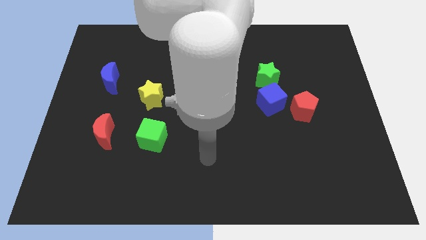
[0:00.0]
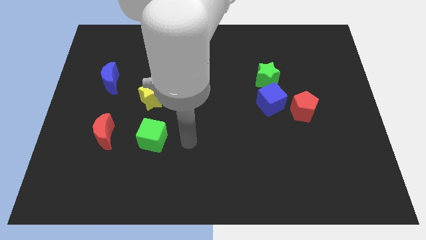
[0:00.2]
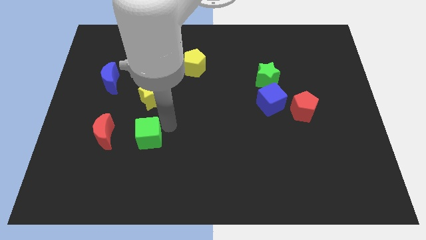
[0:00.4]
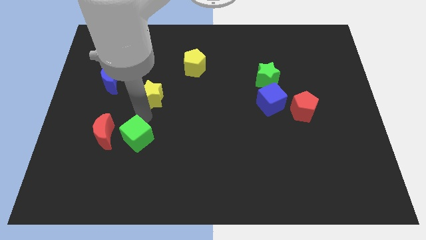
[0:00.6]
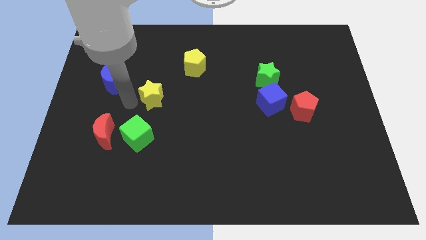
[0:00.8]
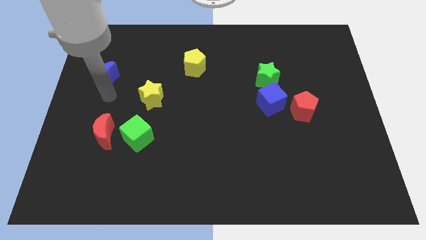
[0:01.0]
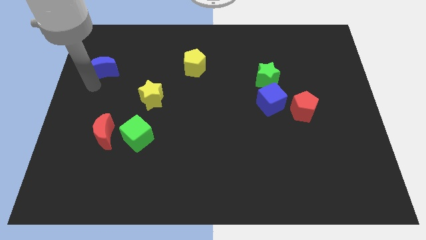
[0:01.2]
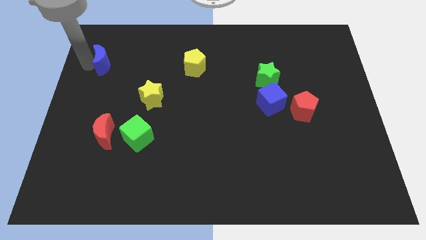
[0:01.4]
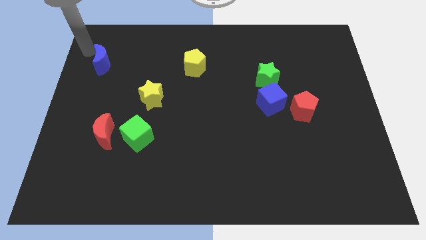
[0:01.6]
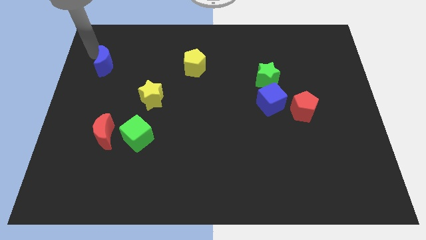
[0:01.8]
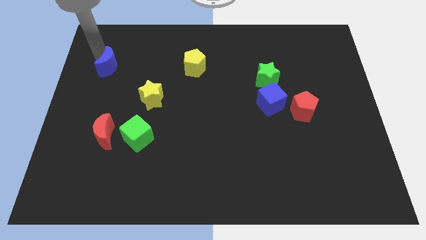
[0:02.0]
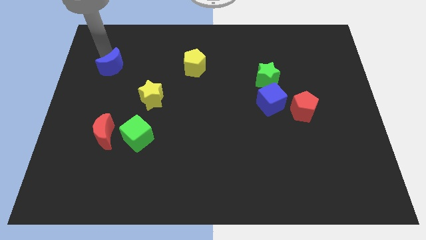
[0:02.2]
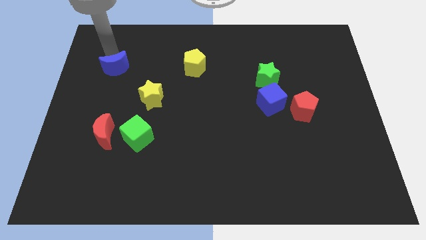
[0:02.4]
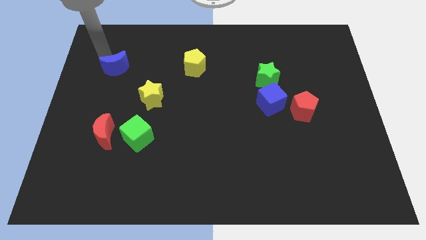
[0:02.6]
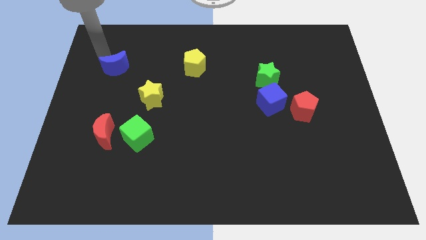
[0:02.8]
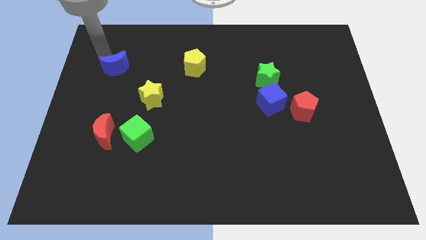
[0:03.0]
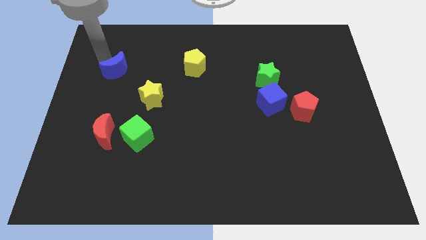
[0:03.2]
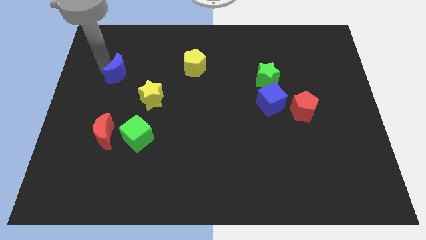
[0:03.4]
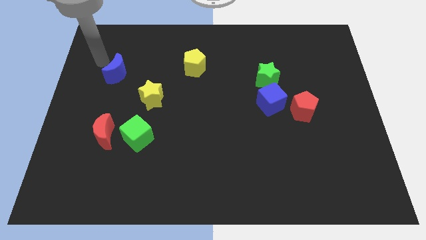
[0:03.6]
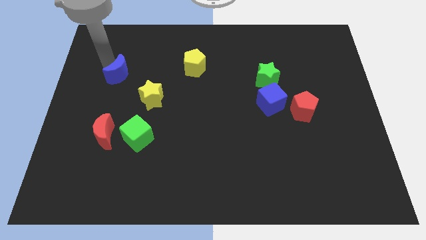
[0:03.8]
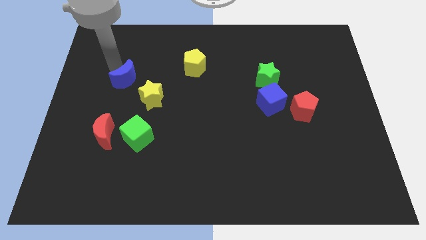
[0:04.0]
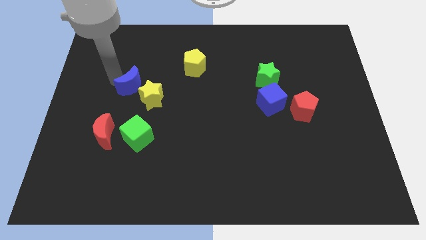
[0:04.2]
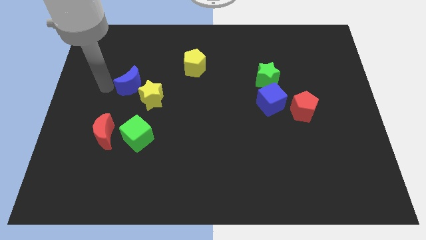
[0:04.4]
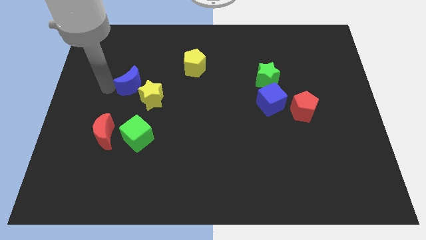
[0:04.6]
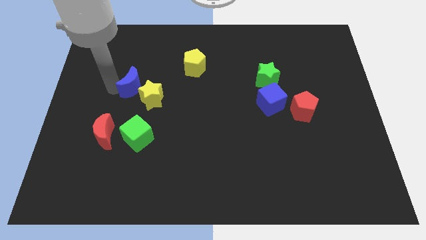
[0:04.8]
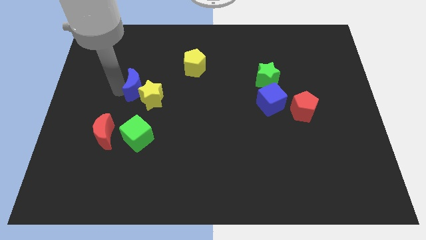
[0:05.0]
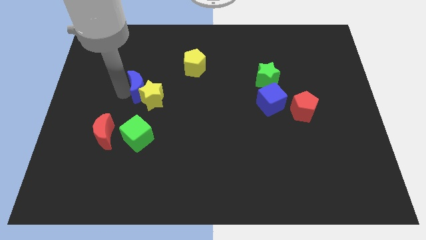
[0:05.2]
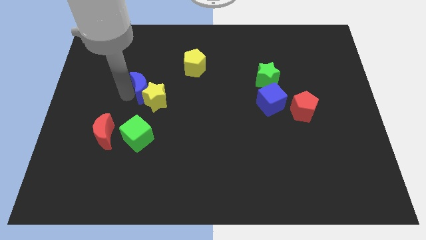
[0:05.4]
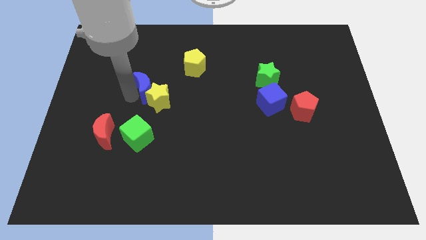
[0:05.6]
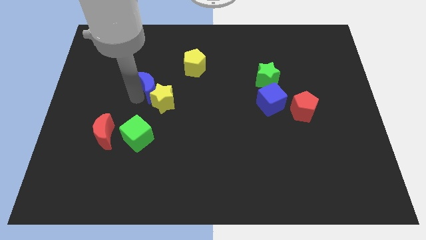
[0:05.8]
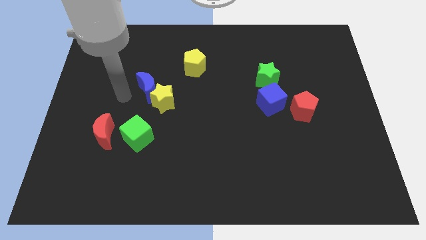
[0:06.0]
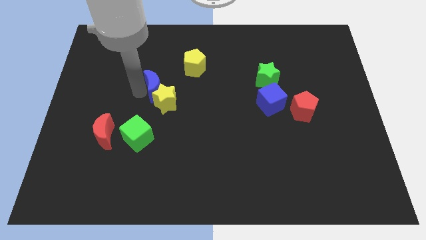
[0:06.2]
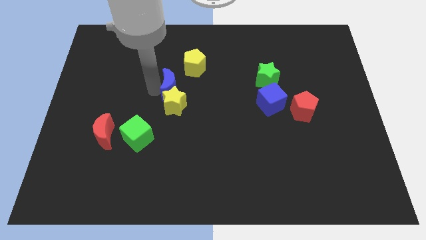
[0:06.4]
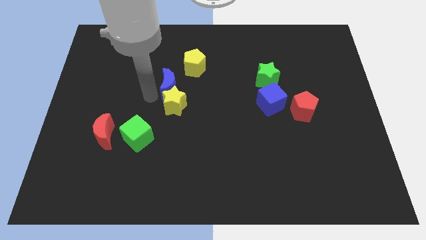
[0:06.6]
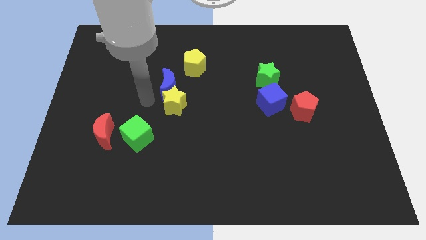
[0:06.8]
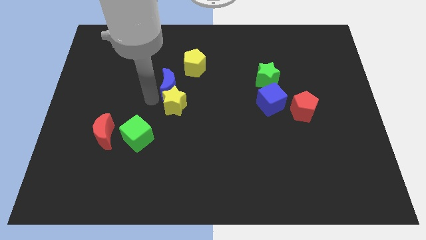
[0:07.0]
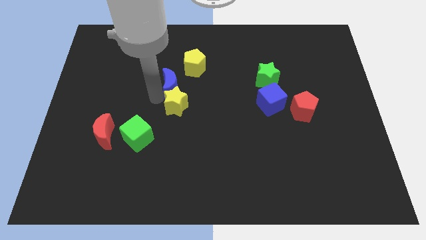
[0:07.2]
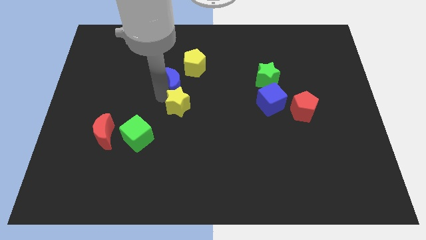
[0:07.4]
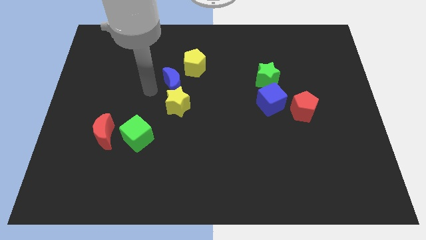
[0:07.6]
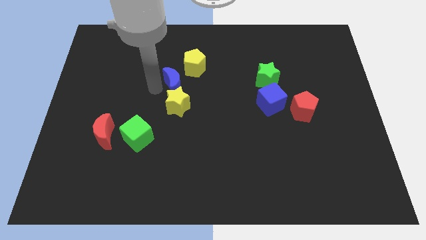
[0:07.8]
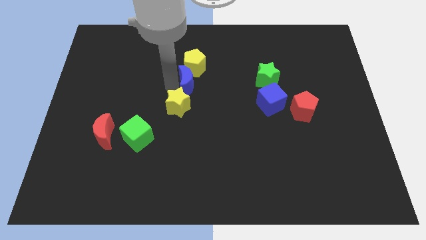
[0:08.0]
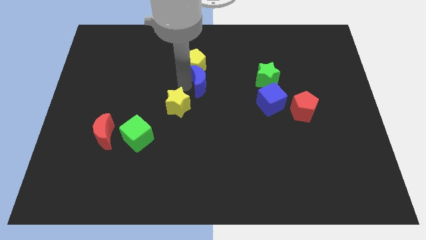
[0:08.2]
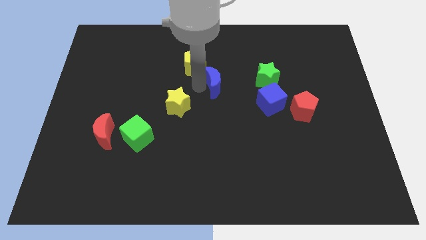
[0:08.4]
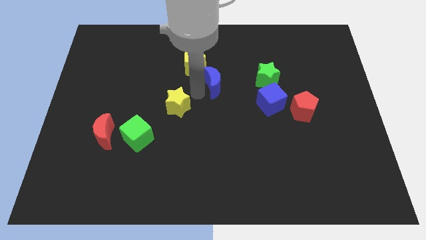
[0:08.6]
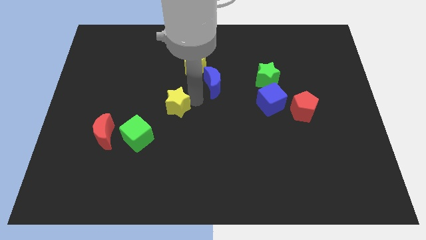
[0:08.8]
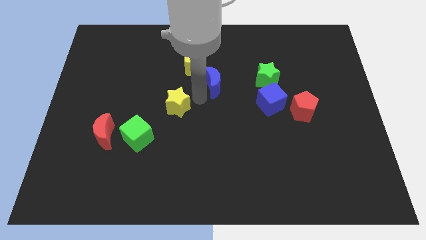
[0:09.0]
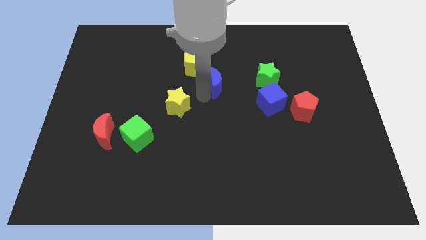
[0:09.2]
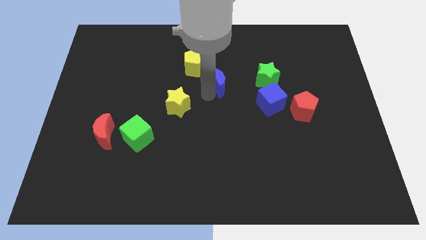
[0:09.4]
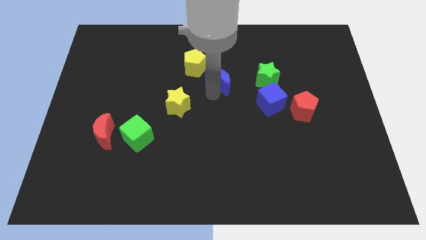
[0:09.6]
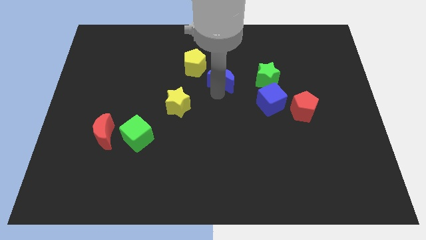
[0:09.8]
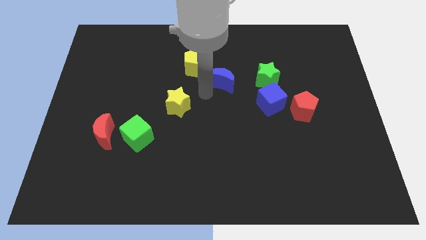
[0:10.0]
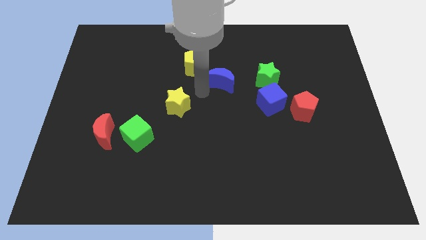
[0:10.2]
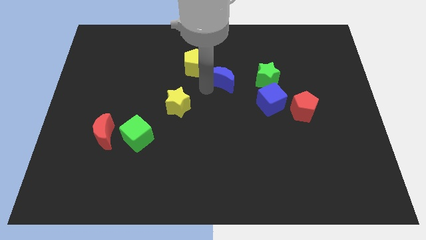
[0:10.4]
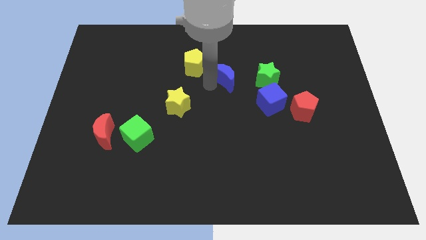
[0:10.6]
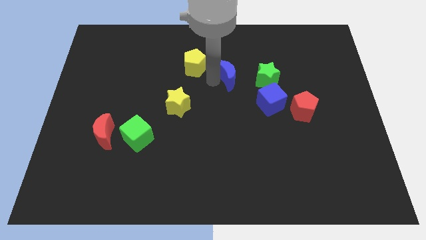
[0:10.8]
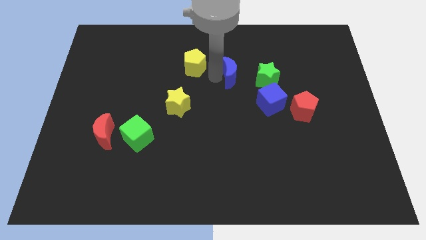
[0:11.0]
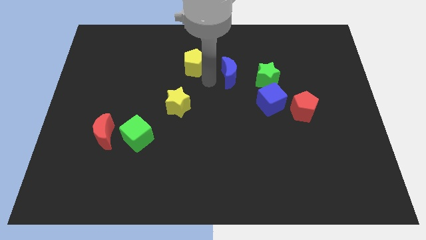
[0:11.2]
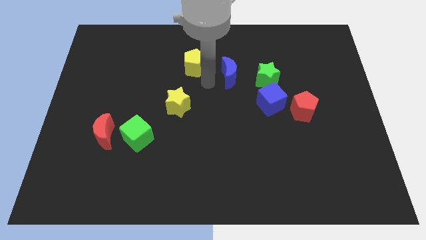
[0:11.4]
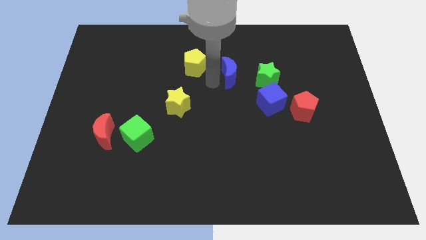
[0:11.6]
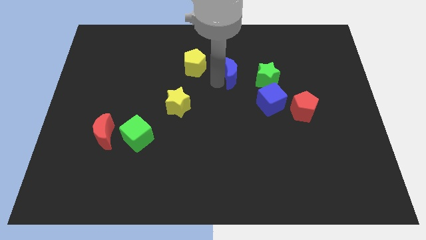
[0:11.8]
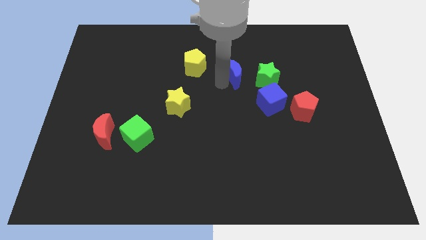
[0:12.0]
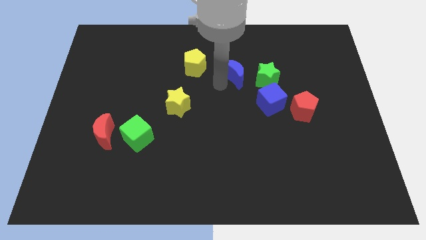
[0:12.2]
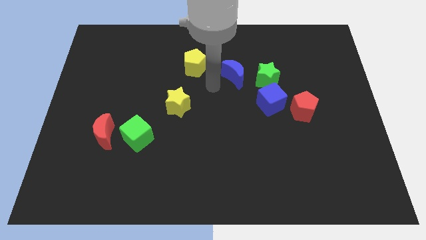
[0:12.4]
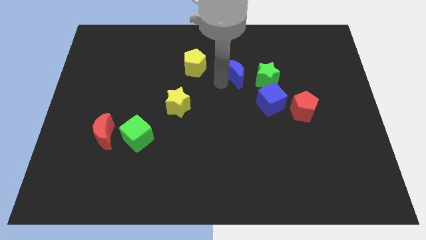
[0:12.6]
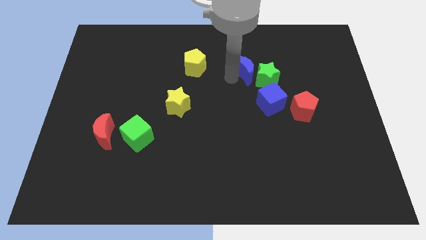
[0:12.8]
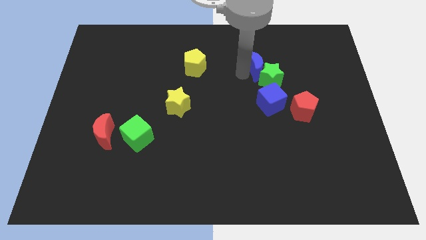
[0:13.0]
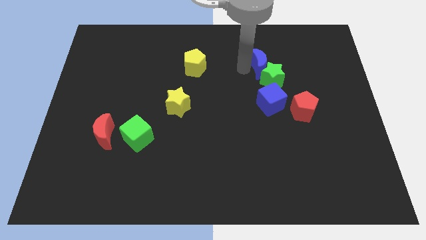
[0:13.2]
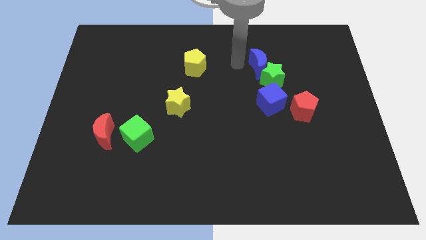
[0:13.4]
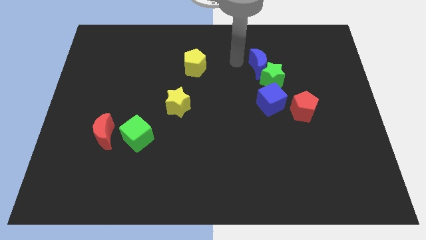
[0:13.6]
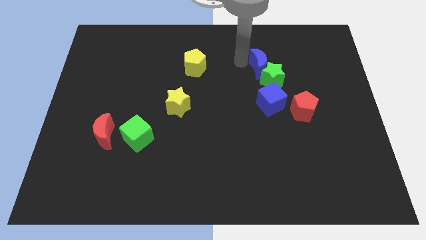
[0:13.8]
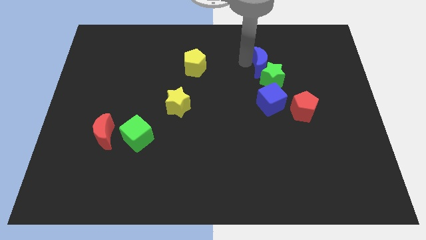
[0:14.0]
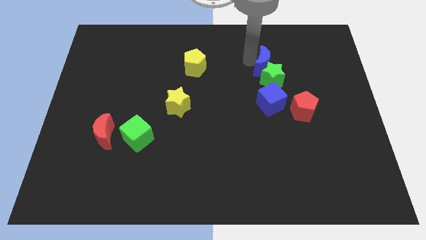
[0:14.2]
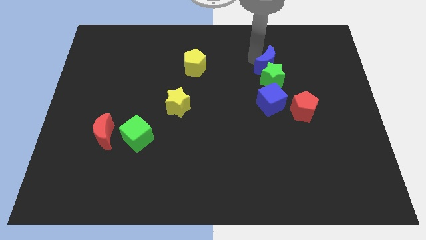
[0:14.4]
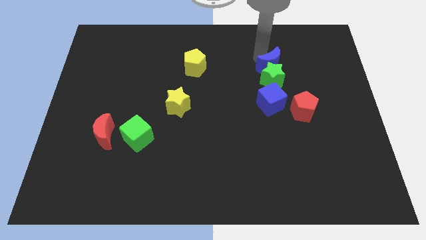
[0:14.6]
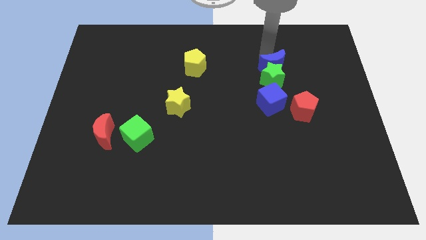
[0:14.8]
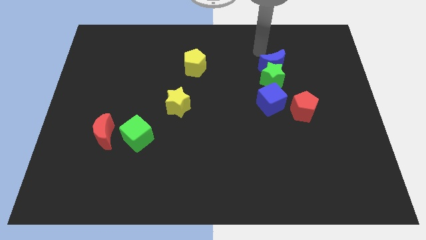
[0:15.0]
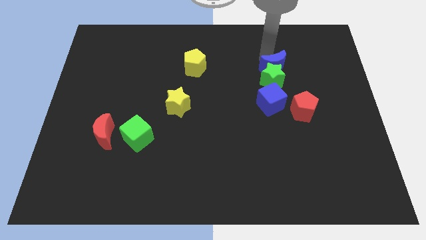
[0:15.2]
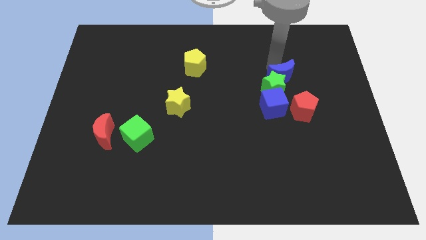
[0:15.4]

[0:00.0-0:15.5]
move the blue moon to the top right of the blue cube
